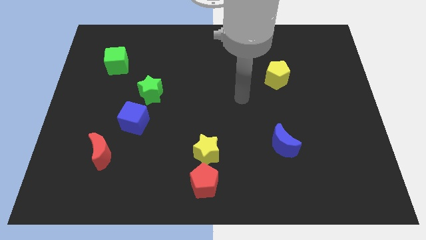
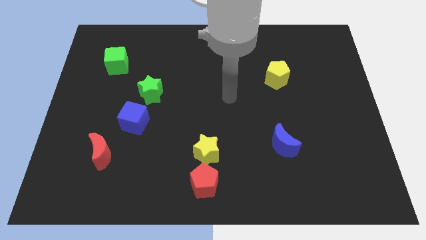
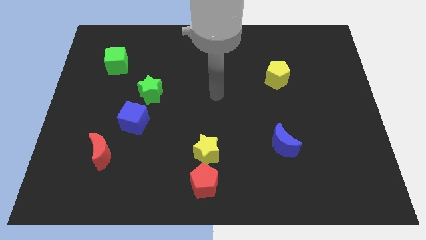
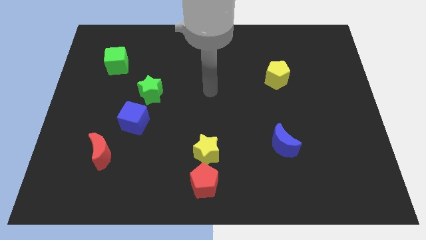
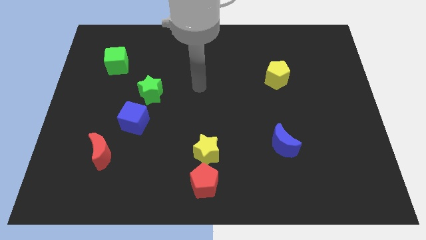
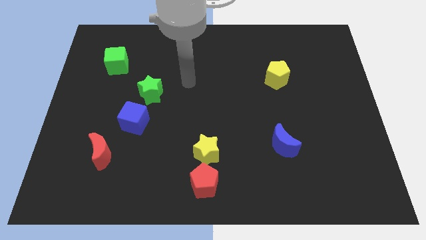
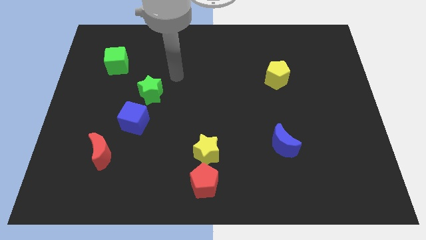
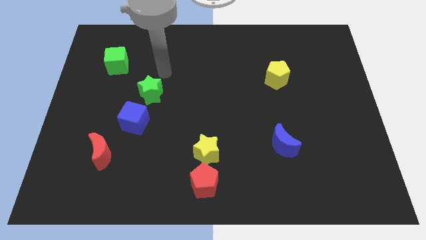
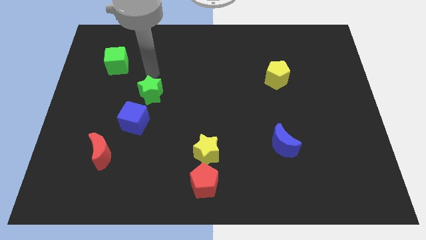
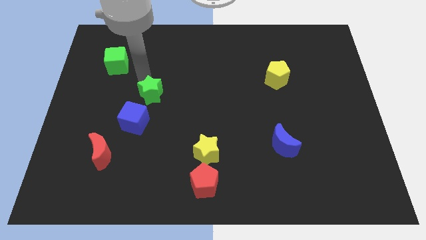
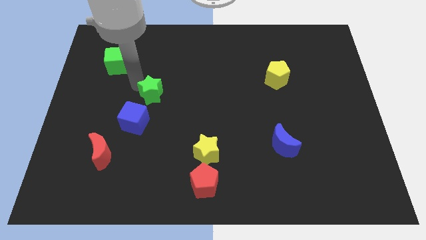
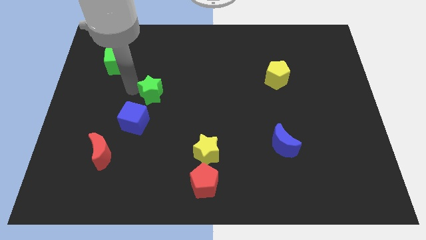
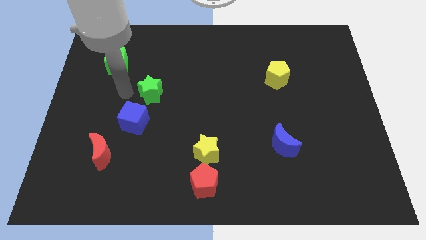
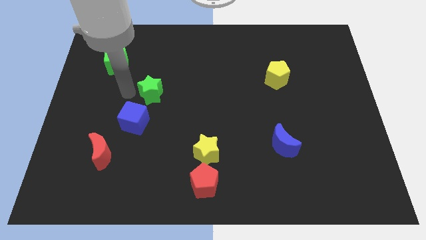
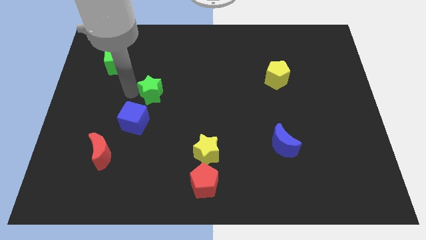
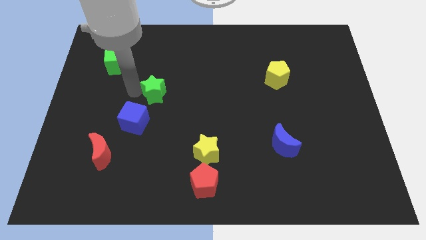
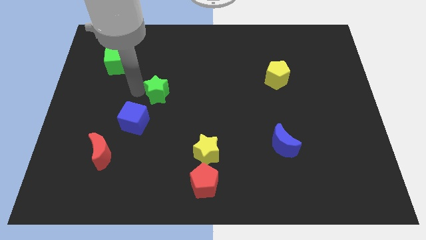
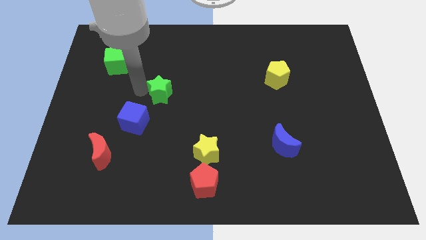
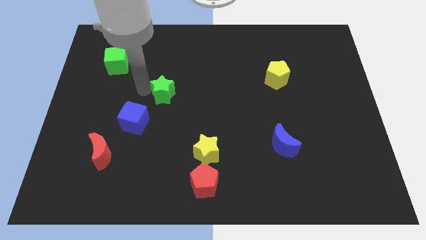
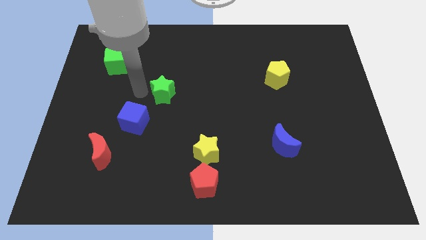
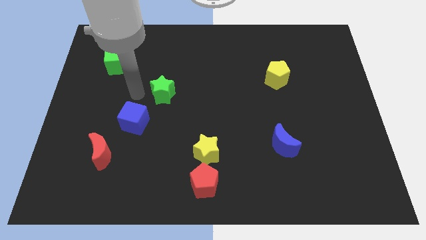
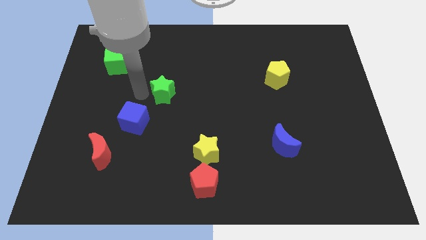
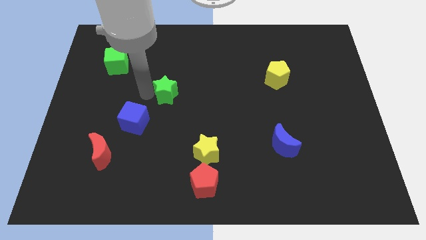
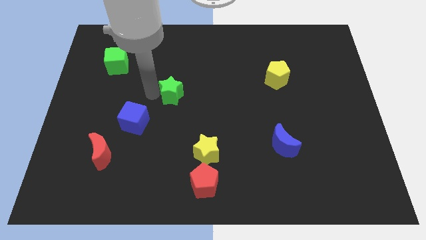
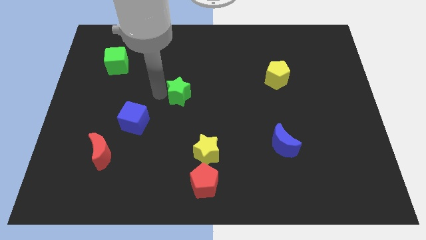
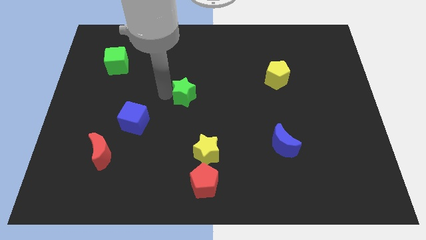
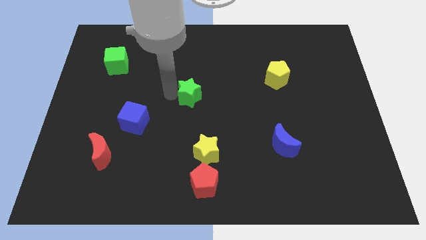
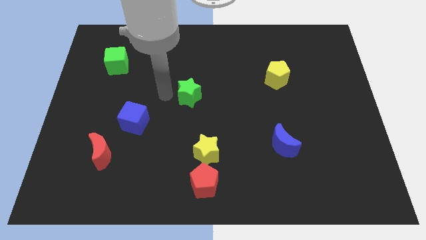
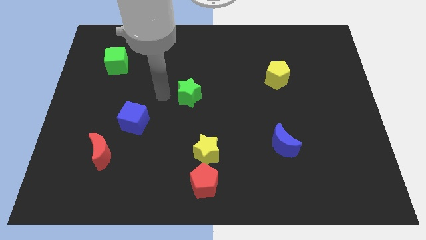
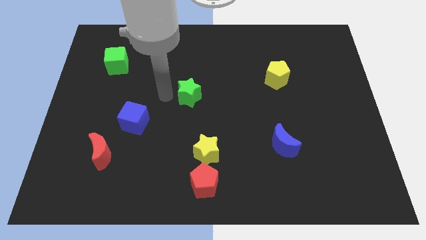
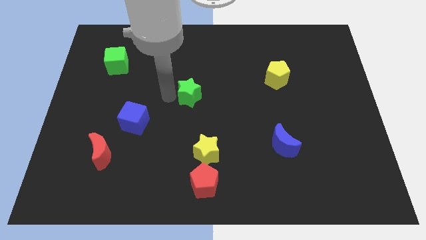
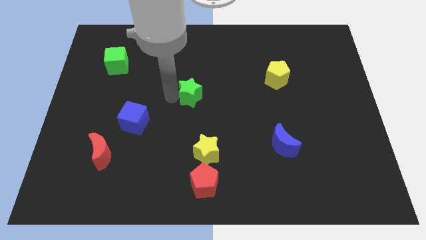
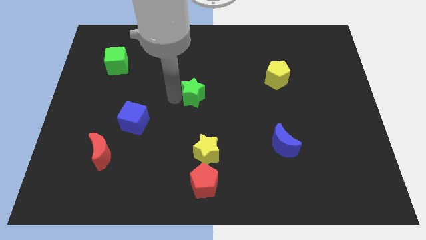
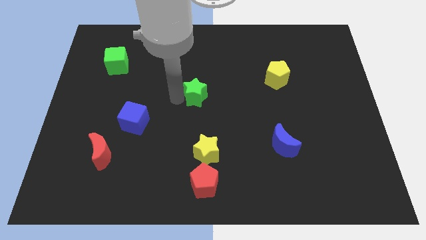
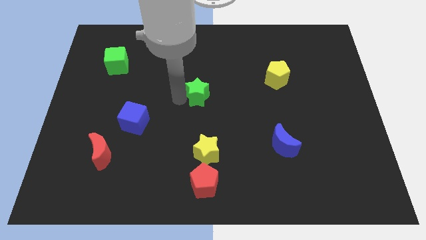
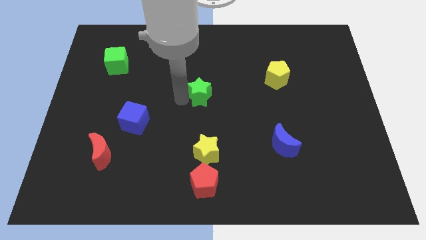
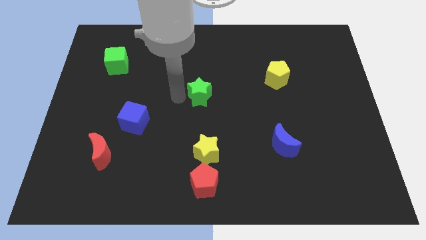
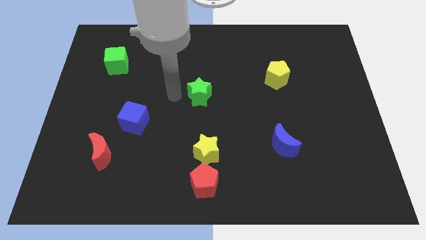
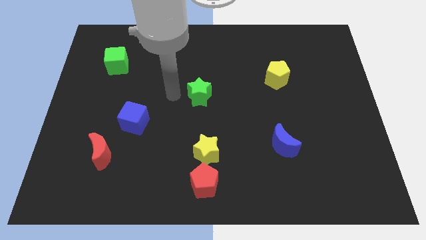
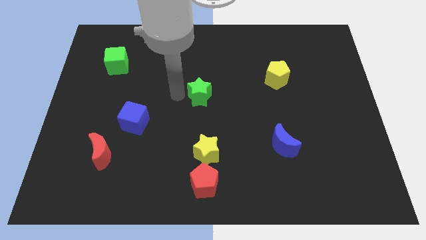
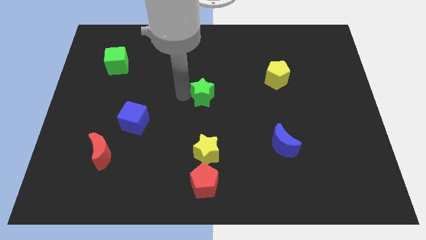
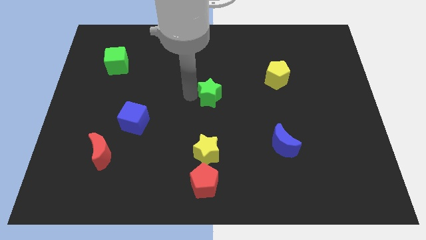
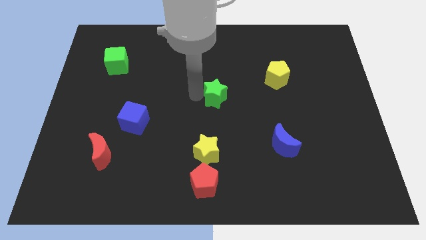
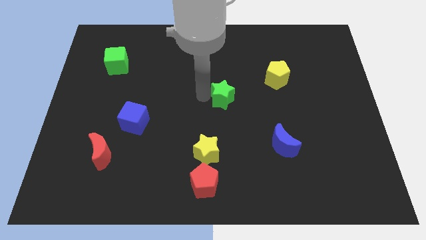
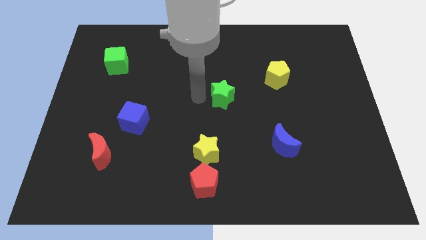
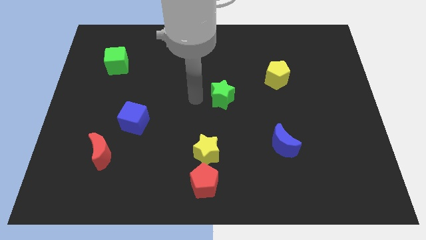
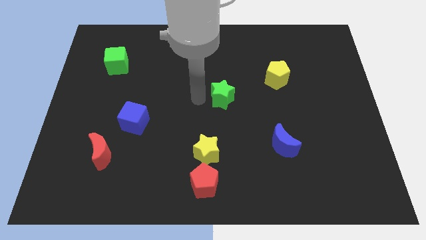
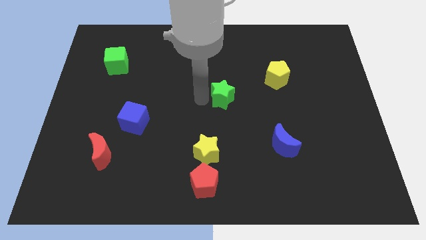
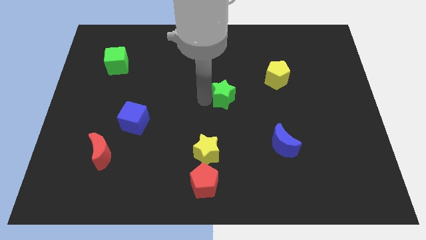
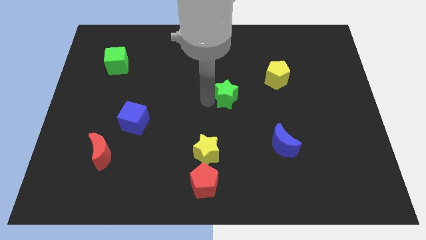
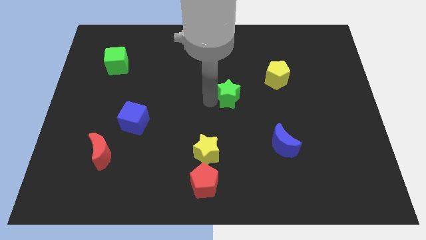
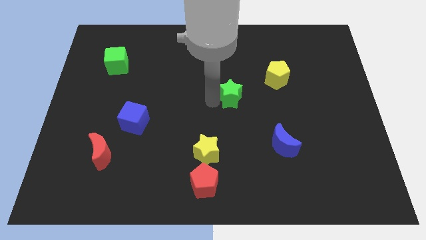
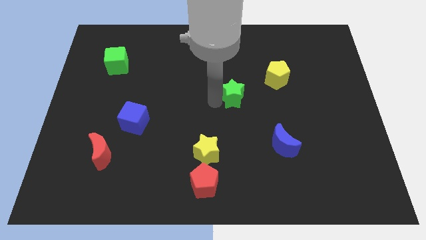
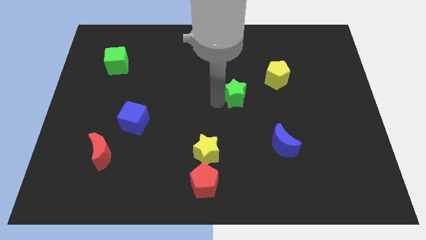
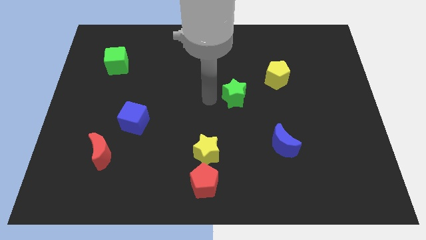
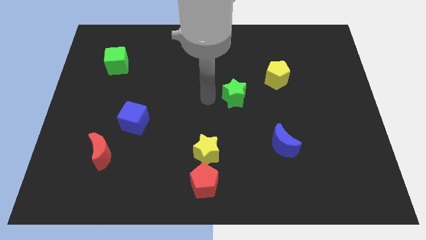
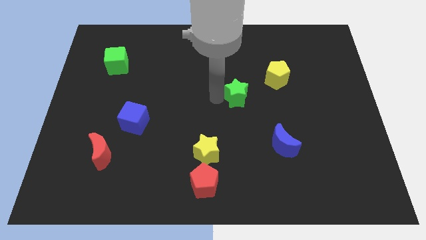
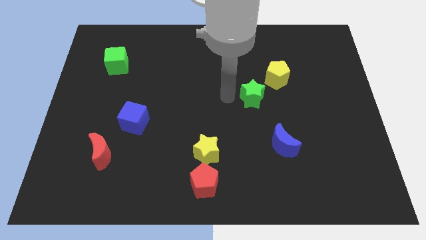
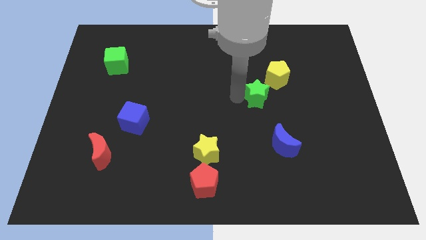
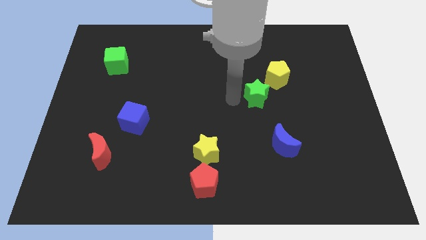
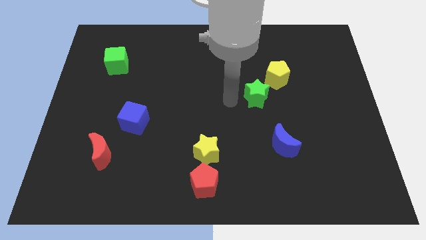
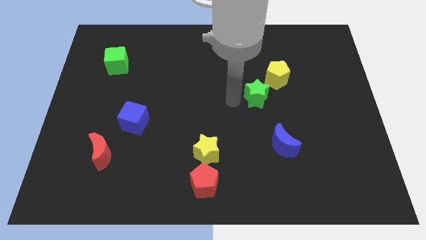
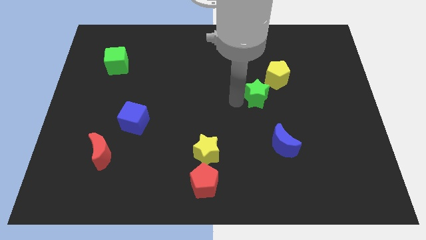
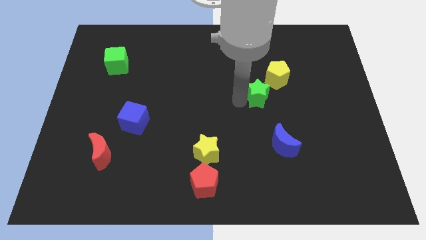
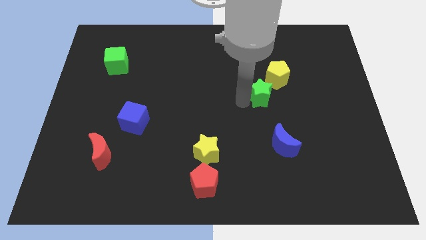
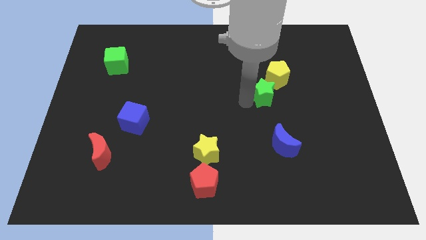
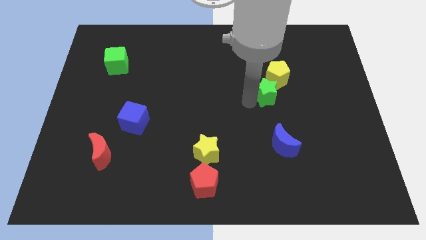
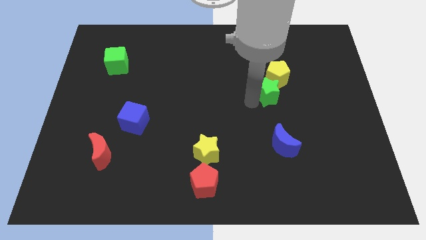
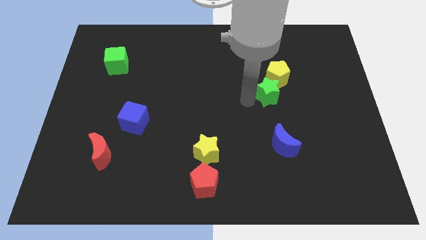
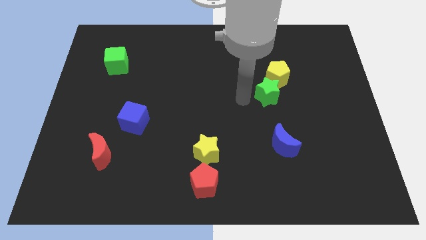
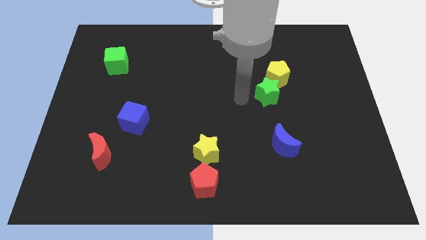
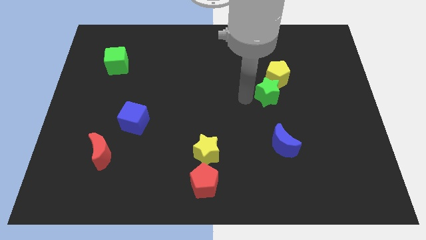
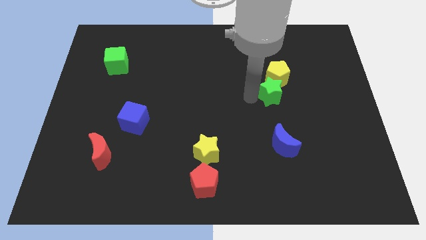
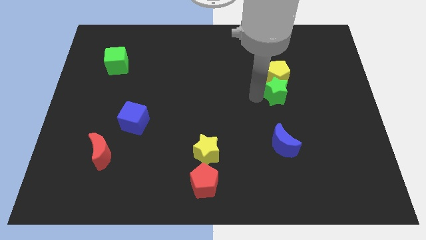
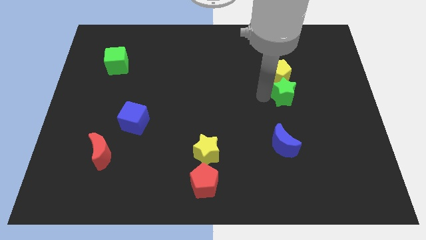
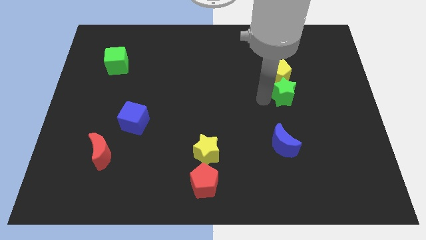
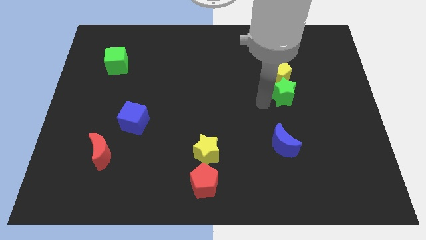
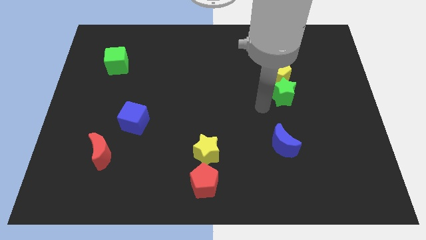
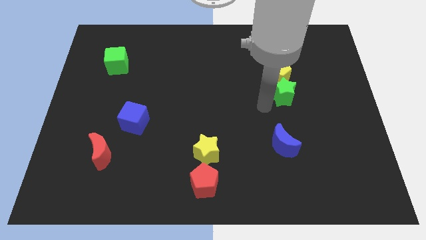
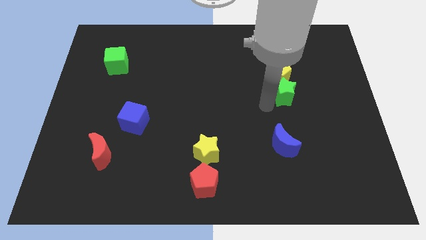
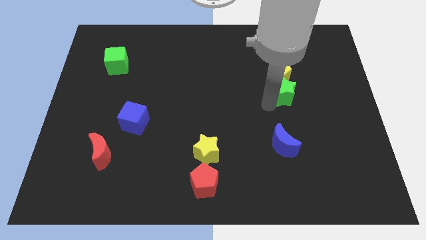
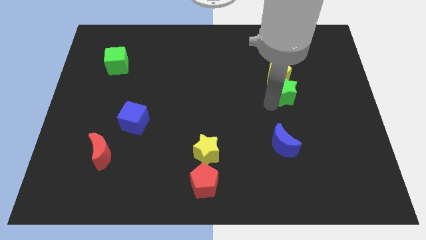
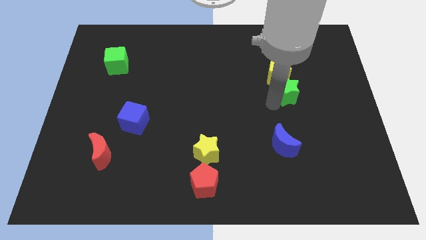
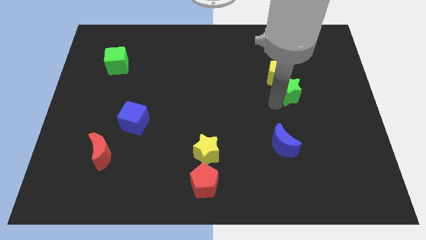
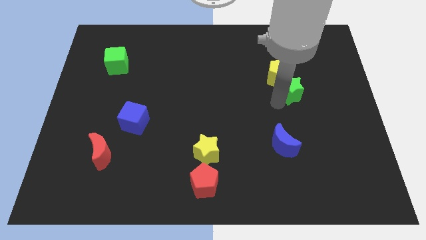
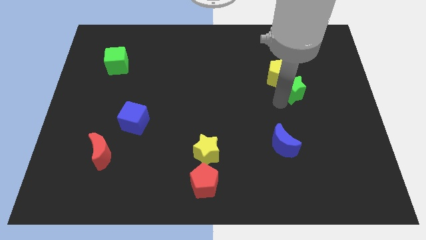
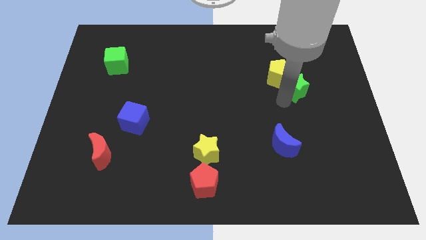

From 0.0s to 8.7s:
put the green star to the right of the yellow pentagon
